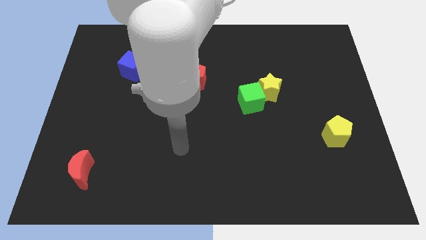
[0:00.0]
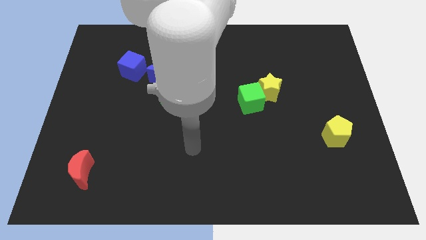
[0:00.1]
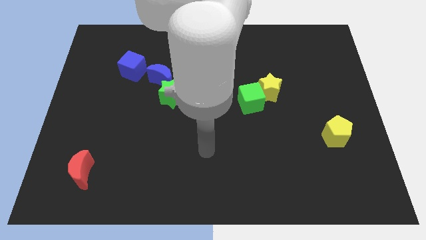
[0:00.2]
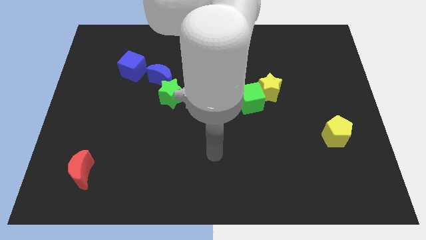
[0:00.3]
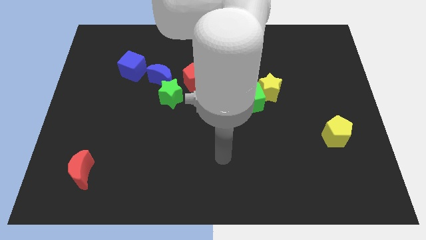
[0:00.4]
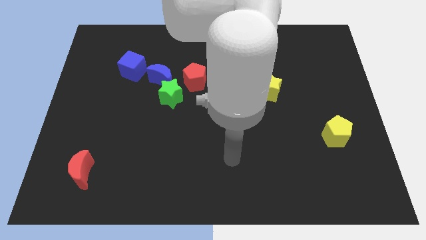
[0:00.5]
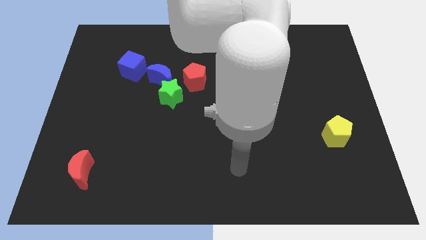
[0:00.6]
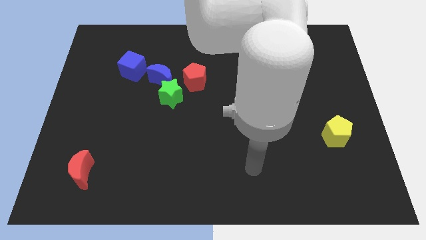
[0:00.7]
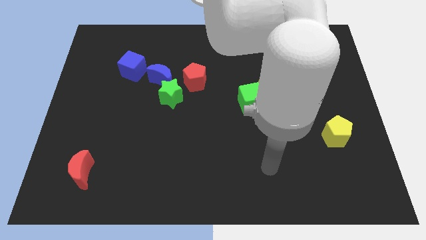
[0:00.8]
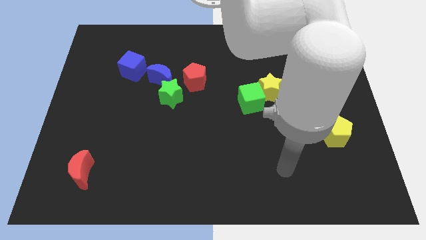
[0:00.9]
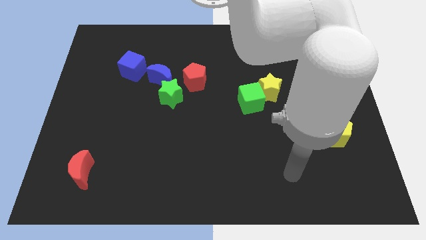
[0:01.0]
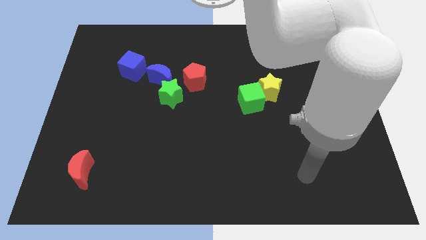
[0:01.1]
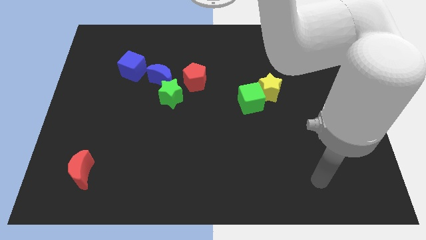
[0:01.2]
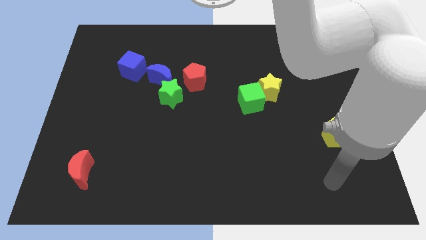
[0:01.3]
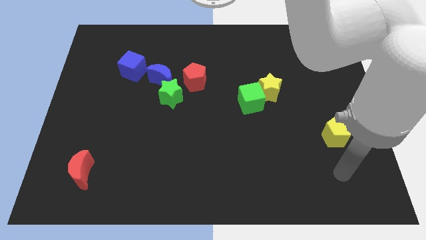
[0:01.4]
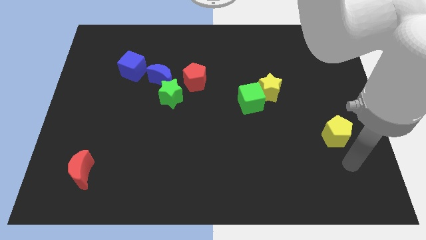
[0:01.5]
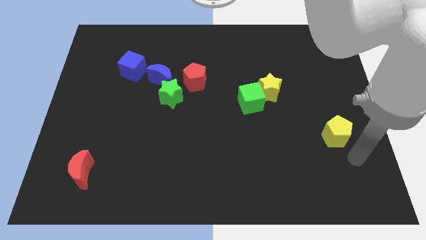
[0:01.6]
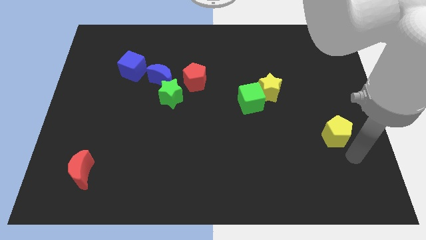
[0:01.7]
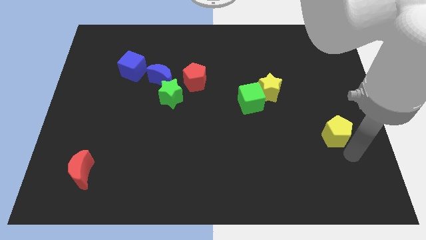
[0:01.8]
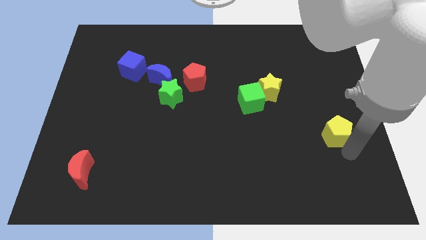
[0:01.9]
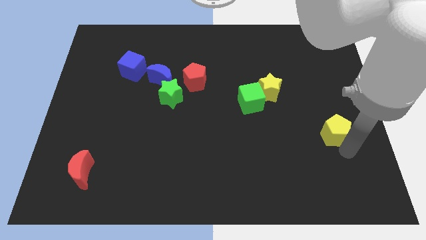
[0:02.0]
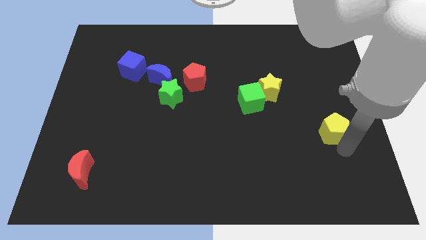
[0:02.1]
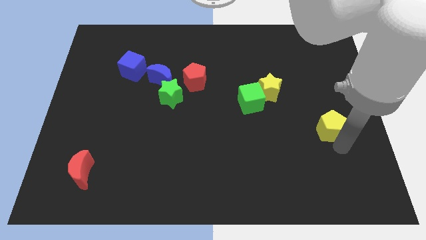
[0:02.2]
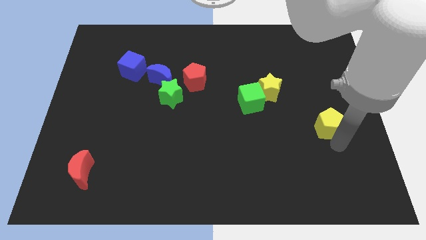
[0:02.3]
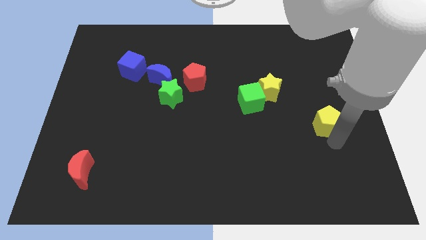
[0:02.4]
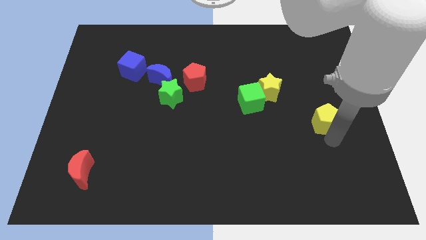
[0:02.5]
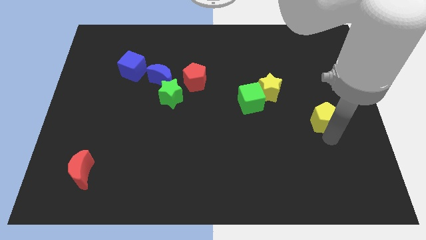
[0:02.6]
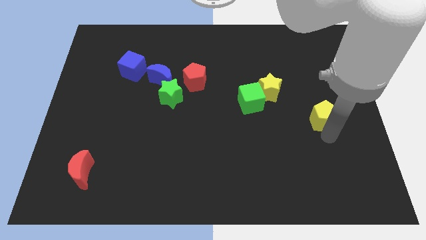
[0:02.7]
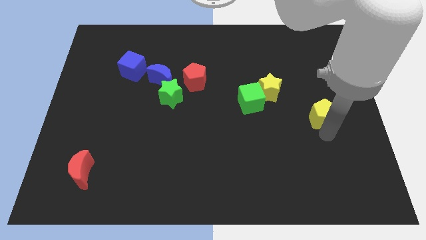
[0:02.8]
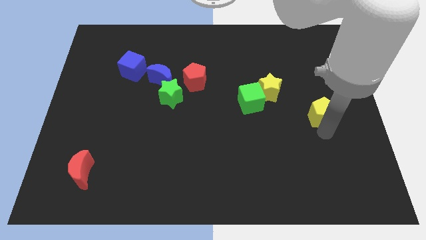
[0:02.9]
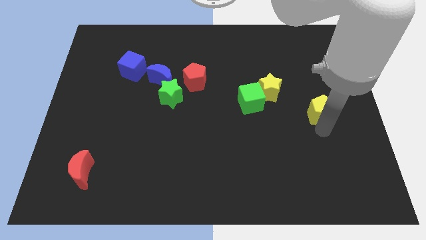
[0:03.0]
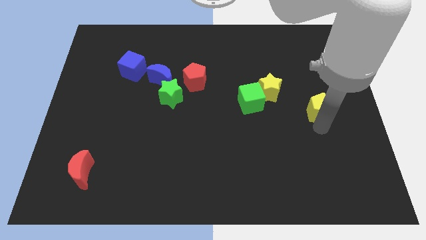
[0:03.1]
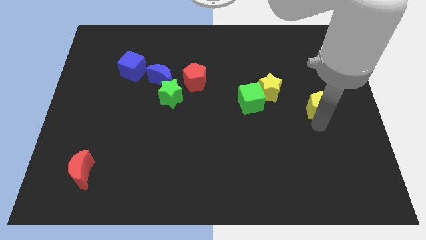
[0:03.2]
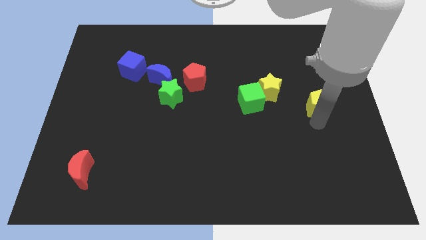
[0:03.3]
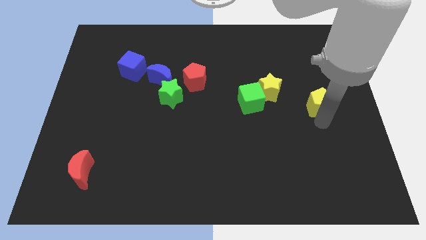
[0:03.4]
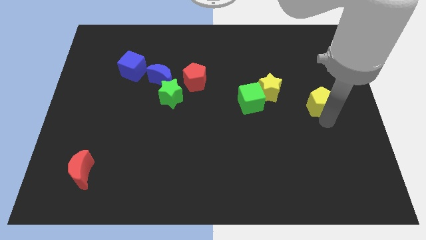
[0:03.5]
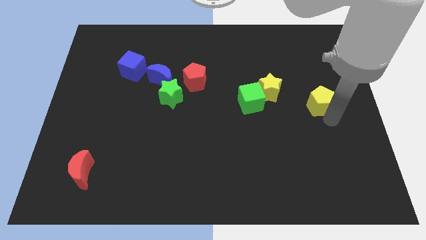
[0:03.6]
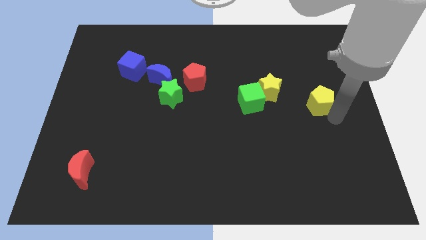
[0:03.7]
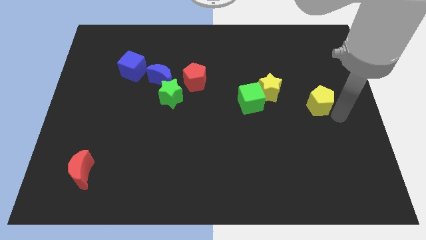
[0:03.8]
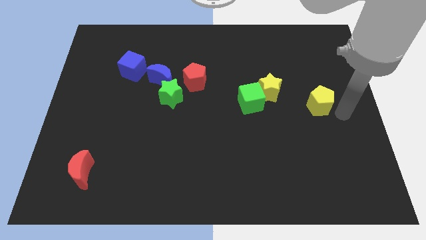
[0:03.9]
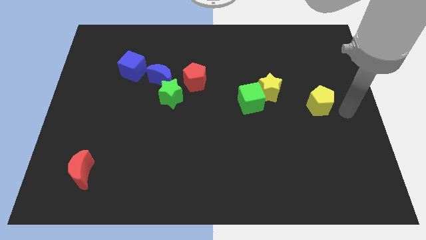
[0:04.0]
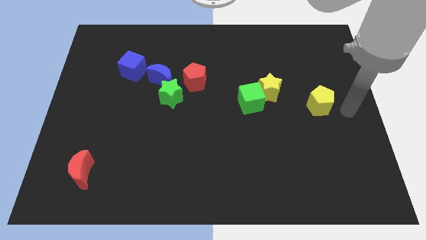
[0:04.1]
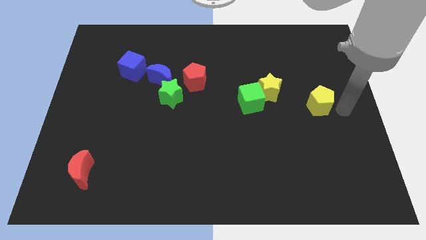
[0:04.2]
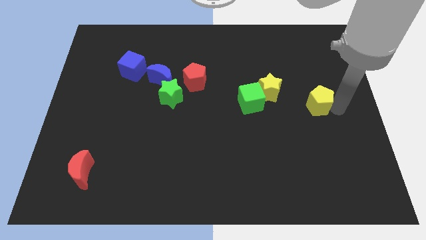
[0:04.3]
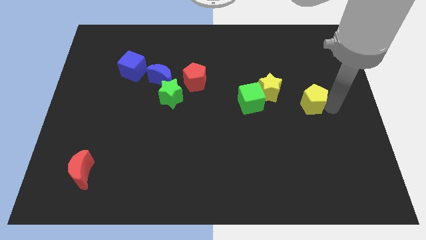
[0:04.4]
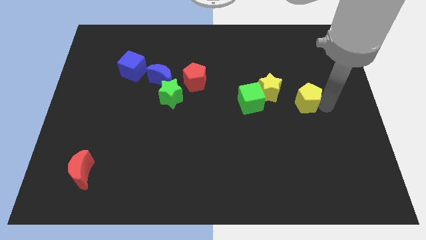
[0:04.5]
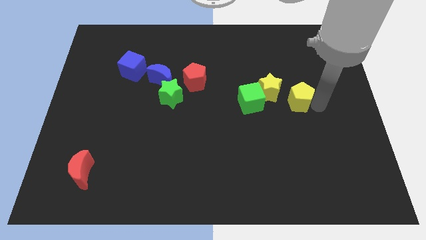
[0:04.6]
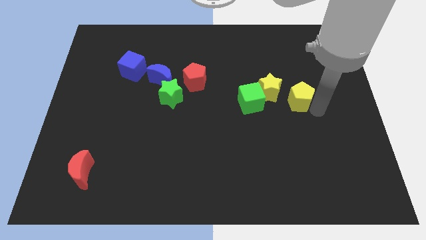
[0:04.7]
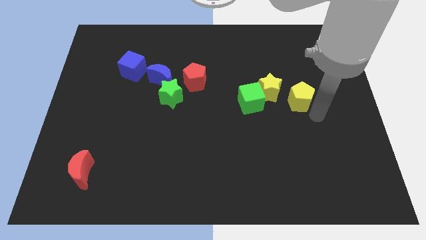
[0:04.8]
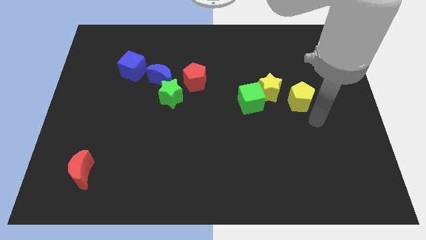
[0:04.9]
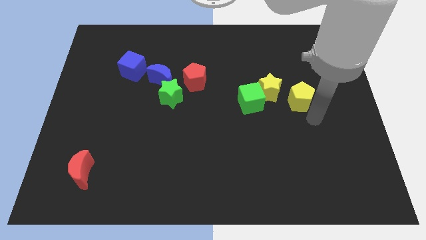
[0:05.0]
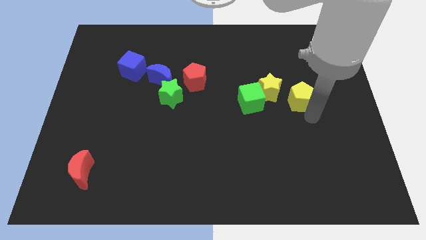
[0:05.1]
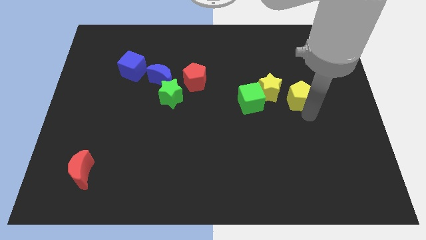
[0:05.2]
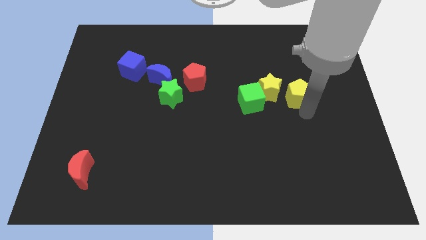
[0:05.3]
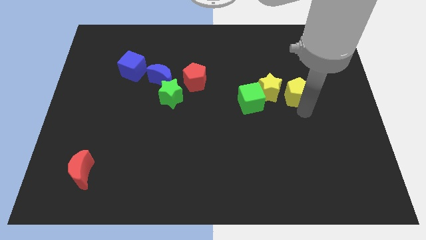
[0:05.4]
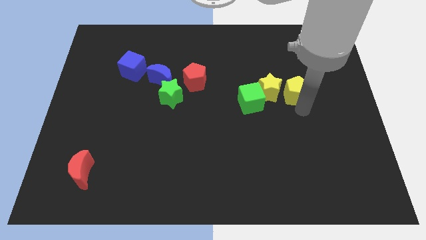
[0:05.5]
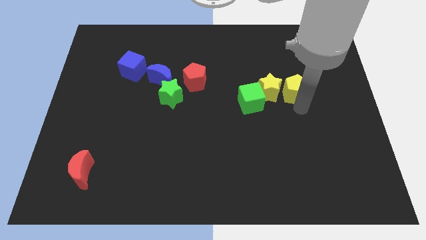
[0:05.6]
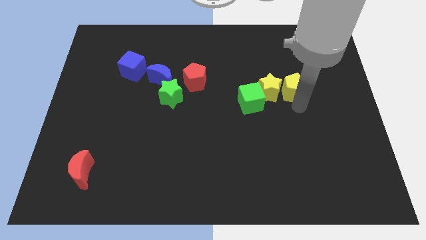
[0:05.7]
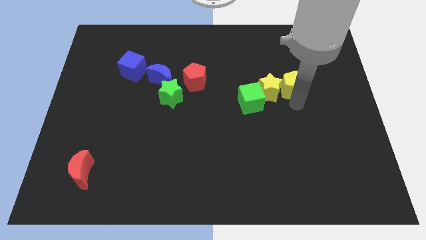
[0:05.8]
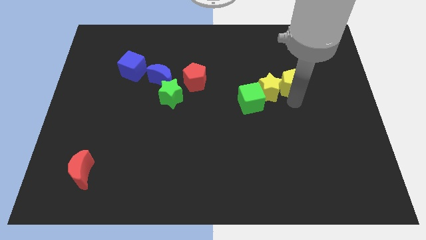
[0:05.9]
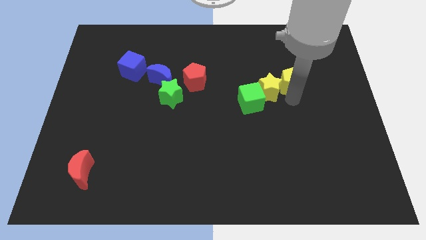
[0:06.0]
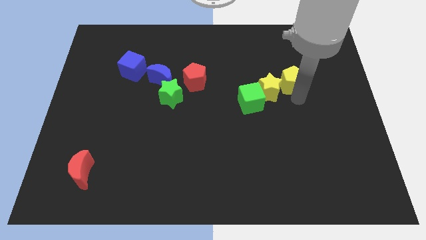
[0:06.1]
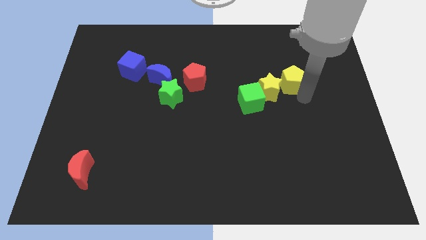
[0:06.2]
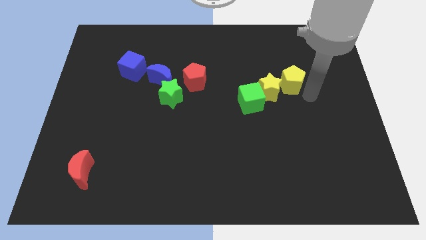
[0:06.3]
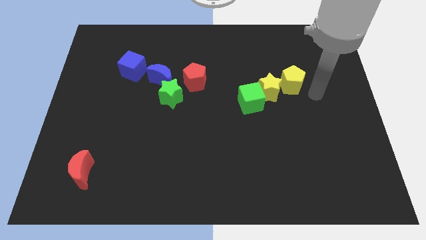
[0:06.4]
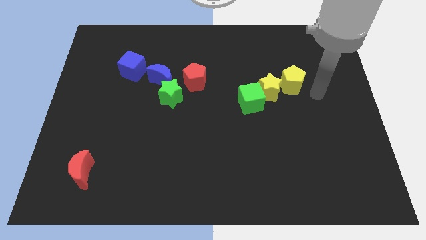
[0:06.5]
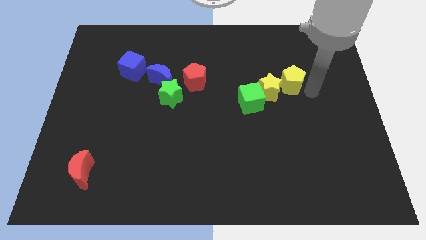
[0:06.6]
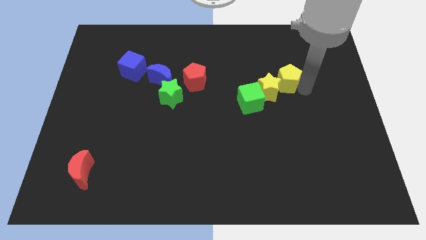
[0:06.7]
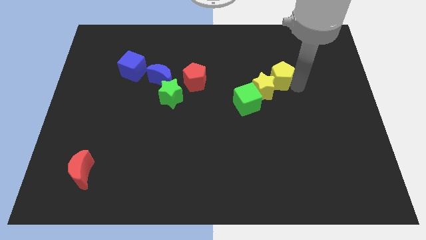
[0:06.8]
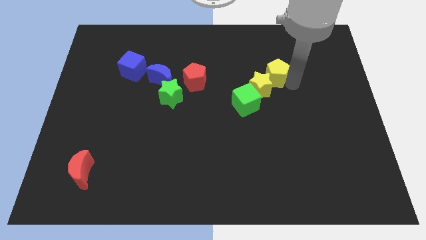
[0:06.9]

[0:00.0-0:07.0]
slide the yellow pentagon diagonally up and left

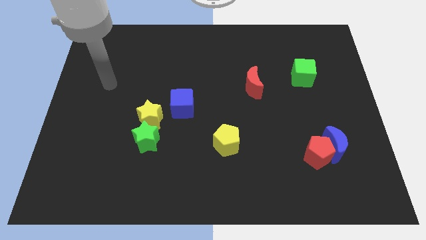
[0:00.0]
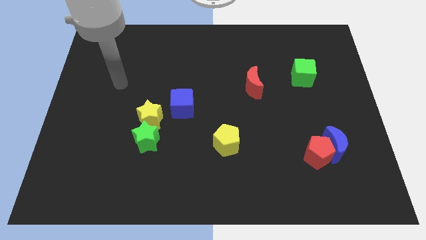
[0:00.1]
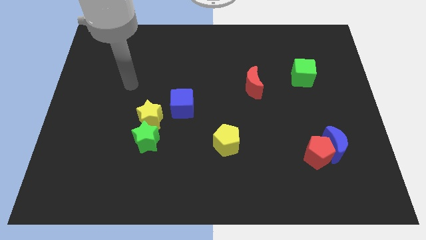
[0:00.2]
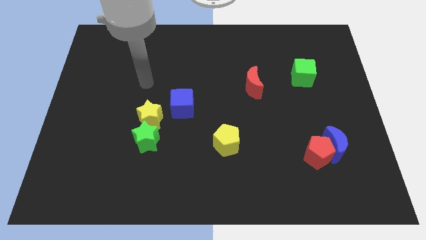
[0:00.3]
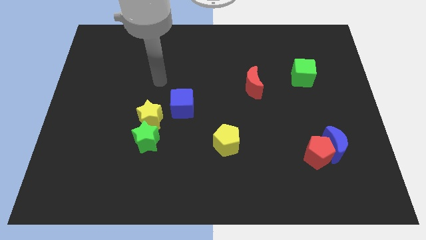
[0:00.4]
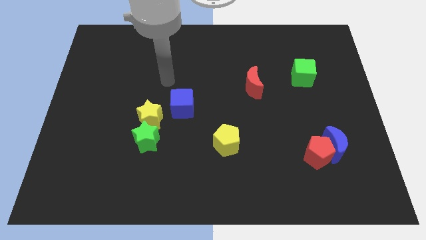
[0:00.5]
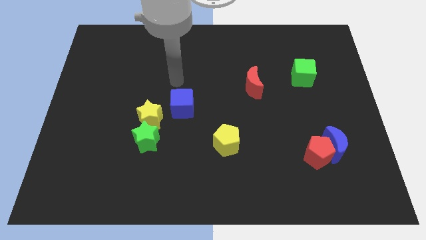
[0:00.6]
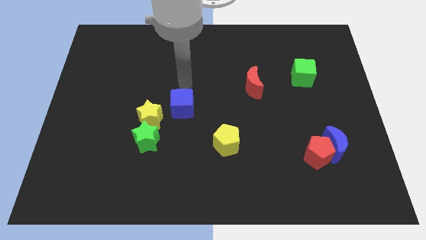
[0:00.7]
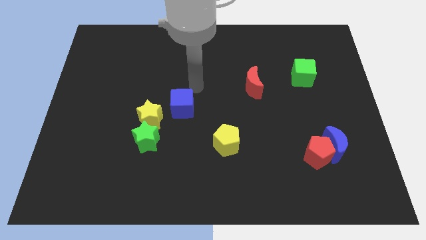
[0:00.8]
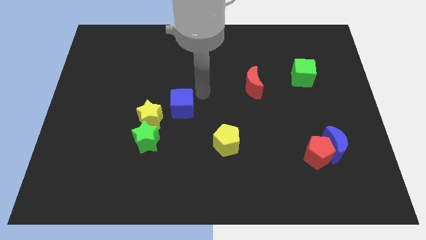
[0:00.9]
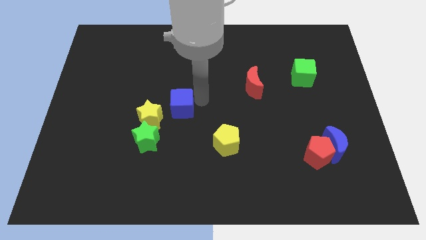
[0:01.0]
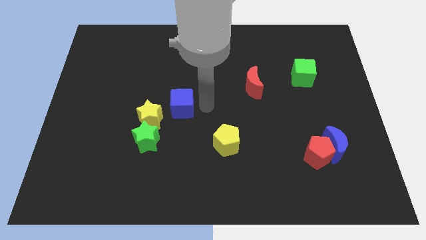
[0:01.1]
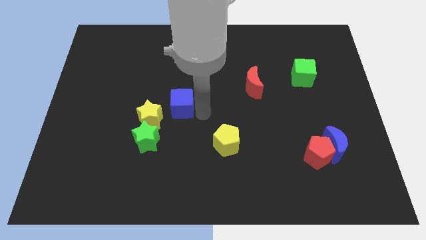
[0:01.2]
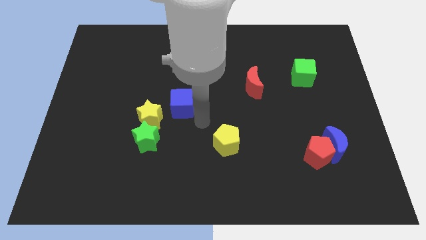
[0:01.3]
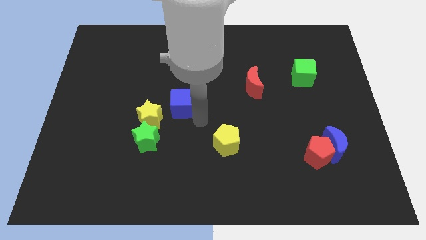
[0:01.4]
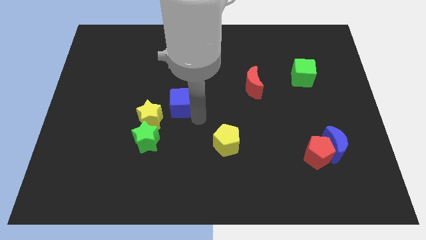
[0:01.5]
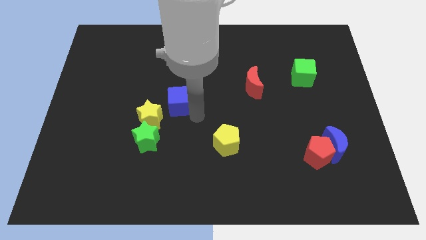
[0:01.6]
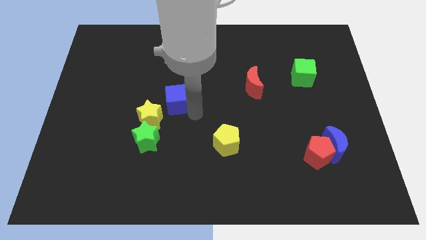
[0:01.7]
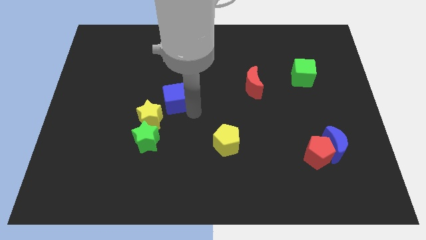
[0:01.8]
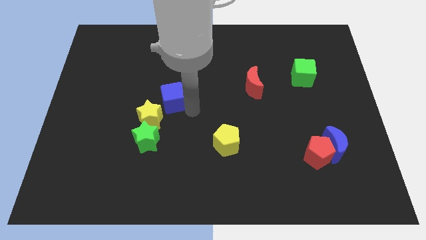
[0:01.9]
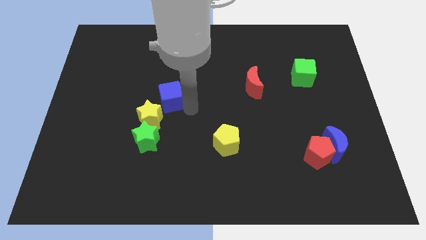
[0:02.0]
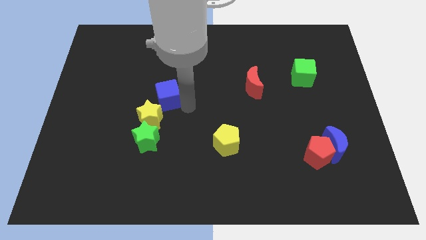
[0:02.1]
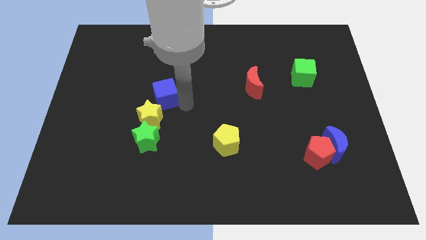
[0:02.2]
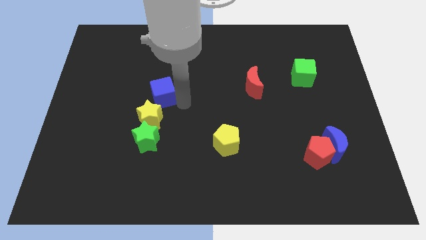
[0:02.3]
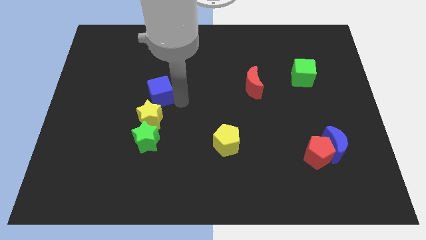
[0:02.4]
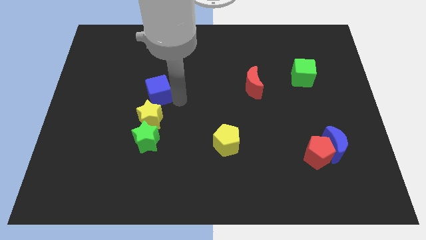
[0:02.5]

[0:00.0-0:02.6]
slightly move the blue cube diagonally up and left
